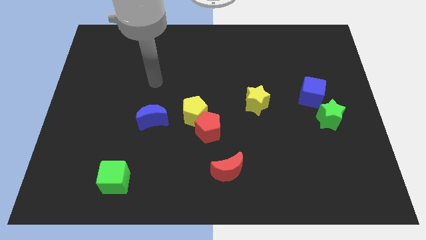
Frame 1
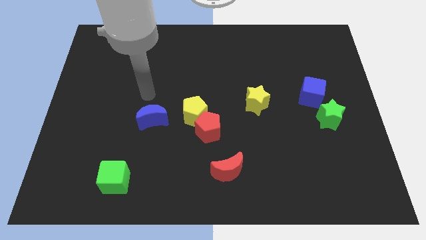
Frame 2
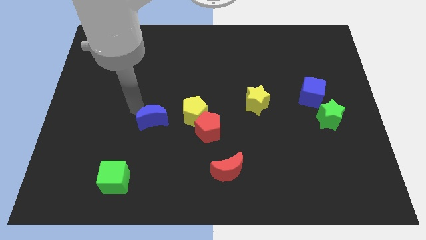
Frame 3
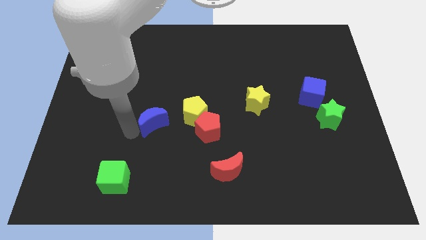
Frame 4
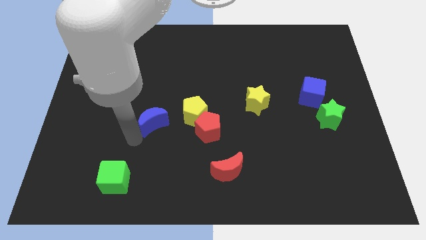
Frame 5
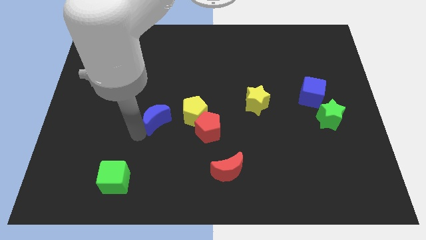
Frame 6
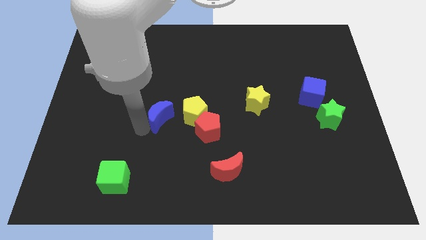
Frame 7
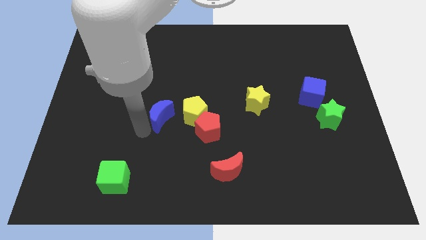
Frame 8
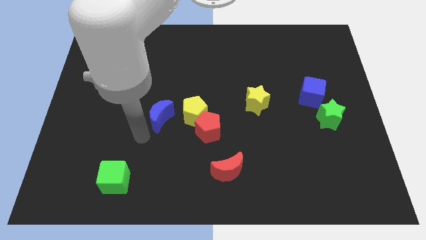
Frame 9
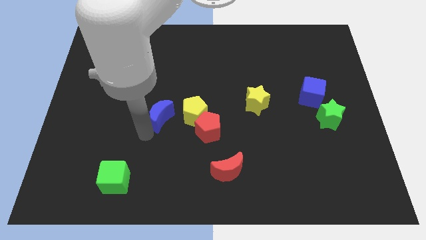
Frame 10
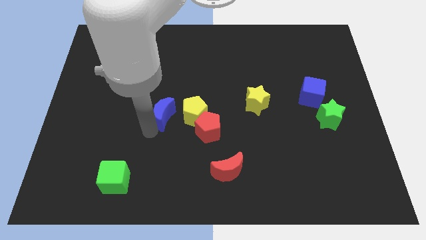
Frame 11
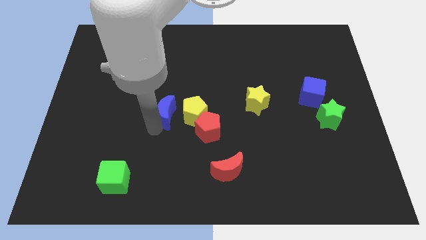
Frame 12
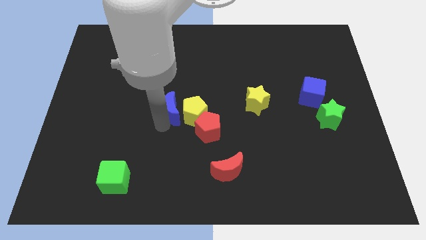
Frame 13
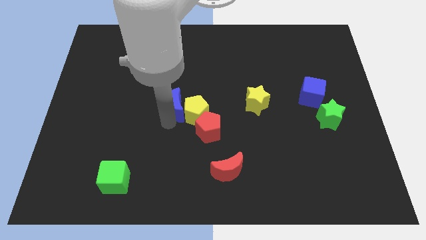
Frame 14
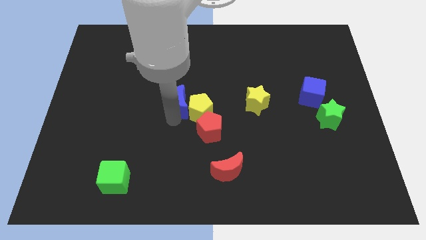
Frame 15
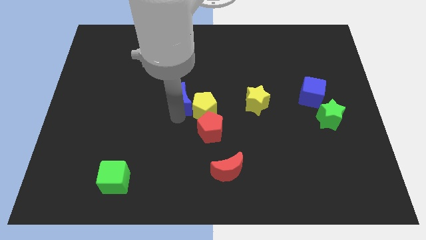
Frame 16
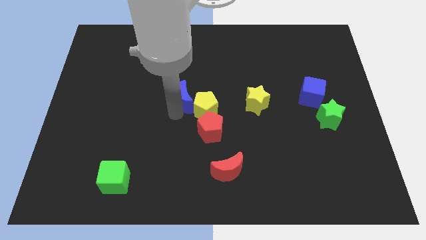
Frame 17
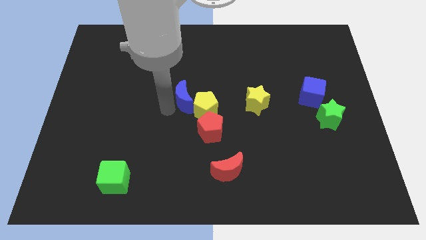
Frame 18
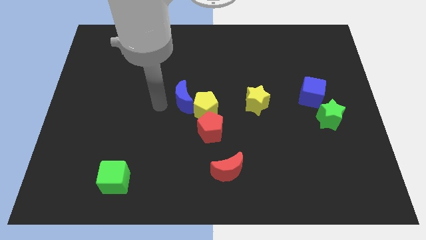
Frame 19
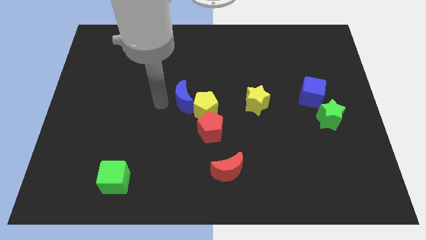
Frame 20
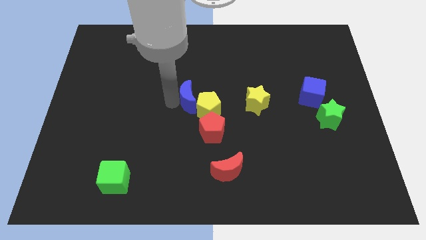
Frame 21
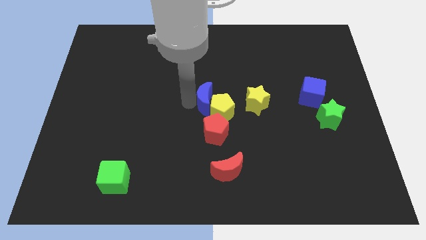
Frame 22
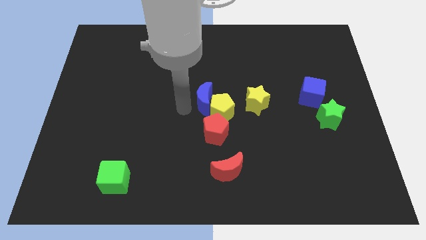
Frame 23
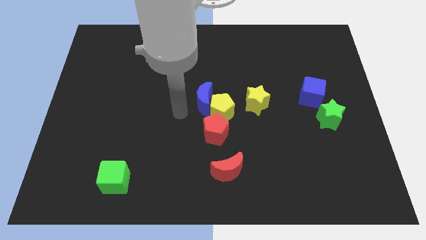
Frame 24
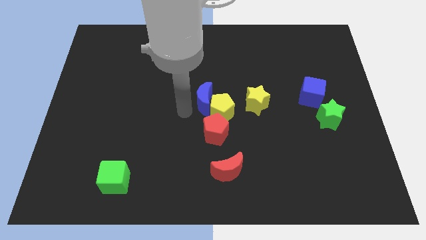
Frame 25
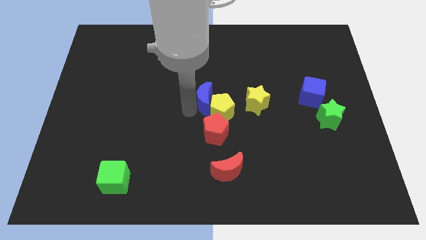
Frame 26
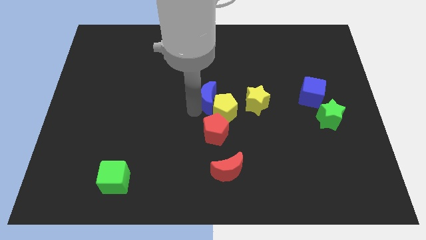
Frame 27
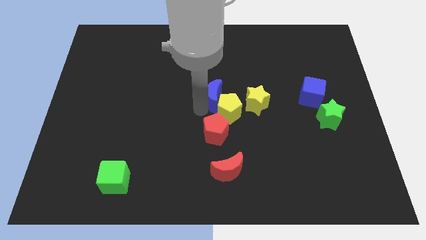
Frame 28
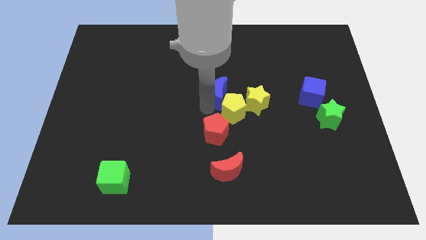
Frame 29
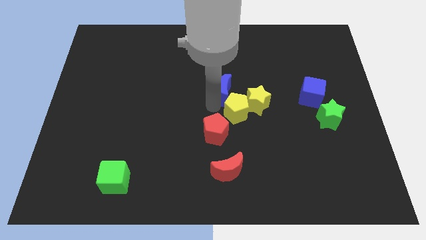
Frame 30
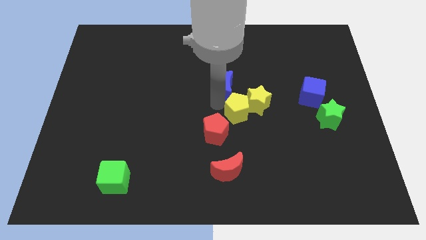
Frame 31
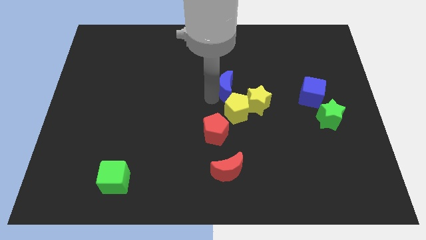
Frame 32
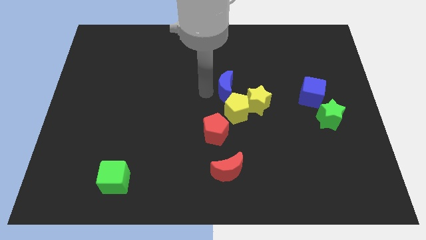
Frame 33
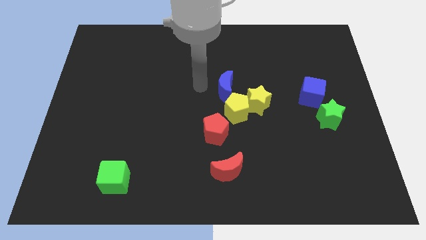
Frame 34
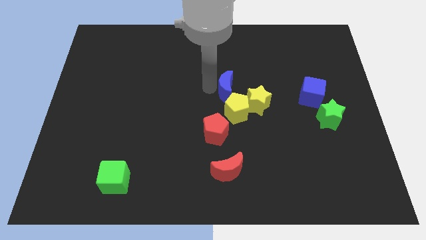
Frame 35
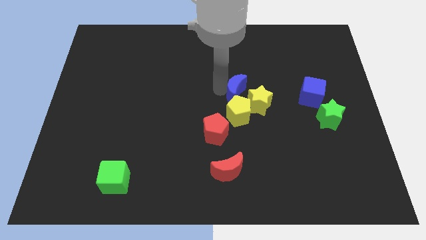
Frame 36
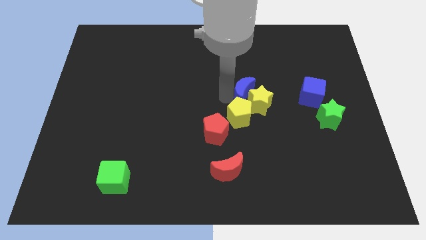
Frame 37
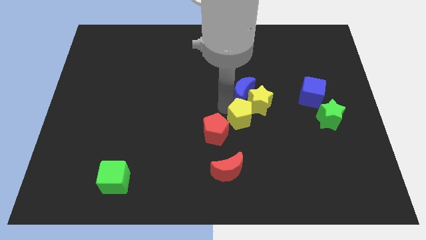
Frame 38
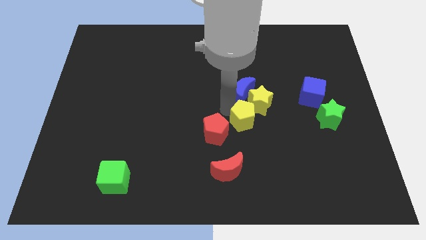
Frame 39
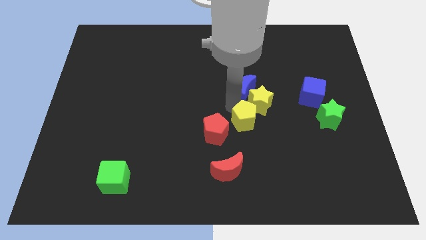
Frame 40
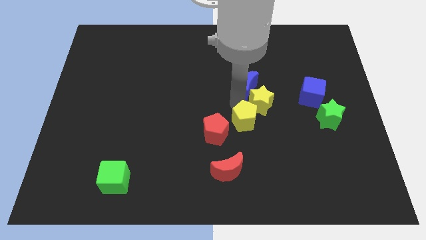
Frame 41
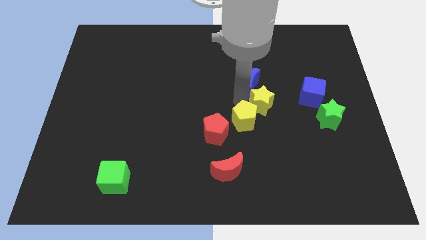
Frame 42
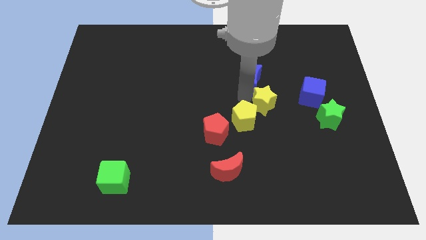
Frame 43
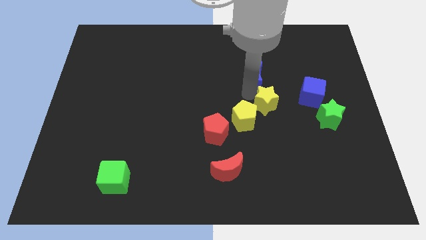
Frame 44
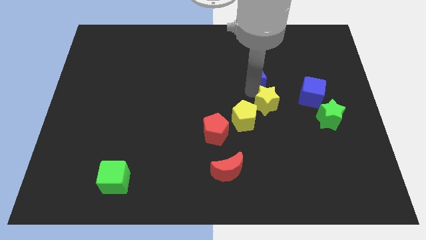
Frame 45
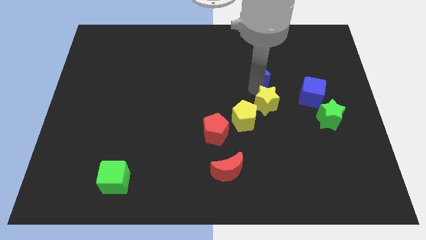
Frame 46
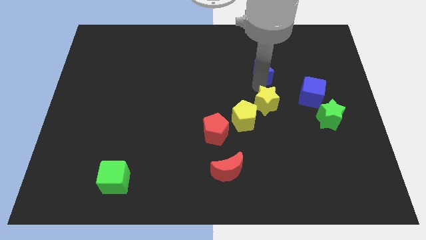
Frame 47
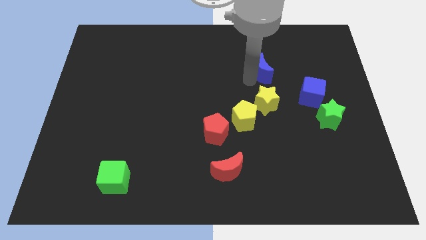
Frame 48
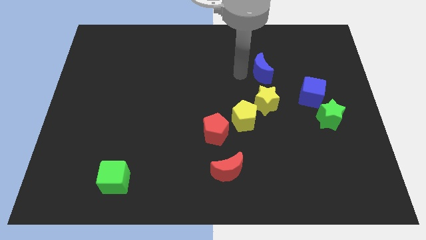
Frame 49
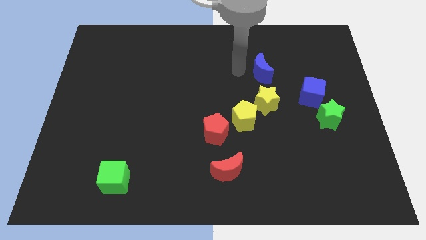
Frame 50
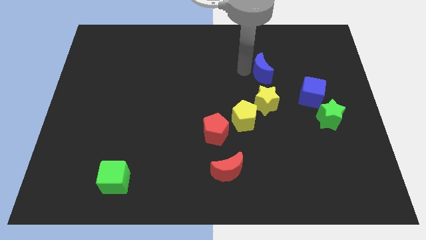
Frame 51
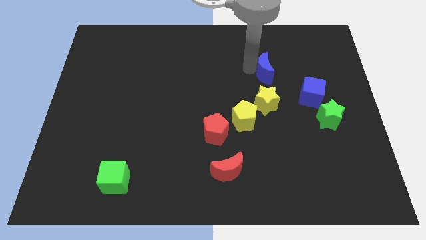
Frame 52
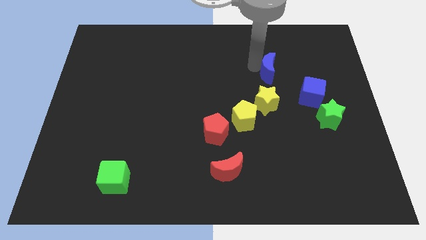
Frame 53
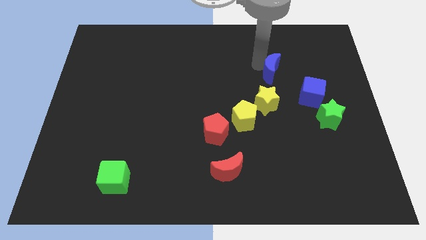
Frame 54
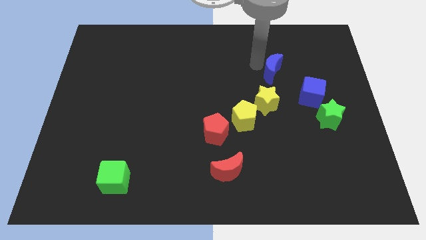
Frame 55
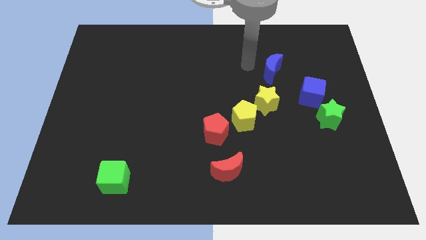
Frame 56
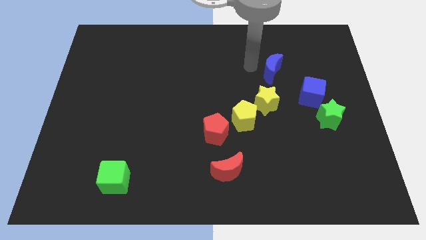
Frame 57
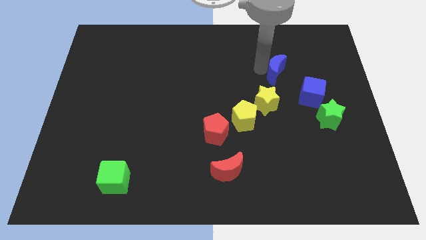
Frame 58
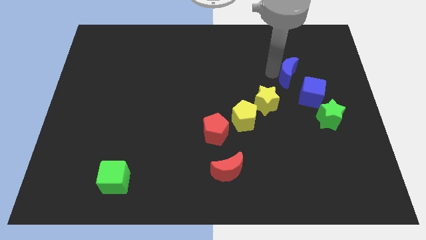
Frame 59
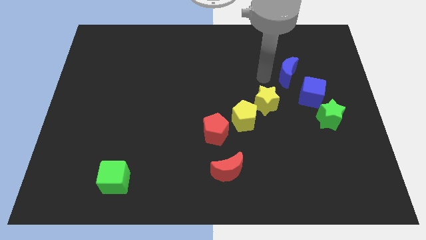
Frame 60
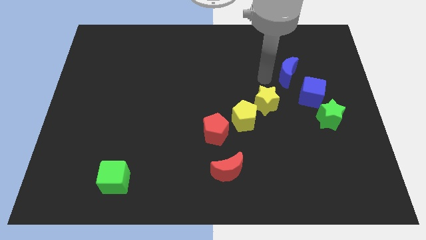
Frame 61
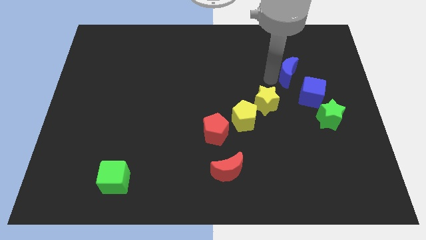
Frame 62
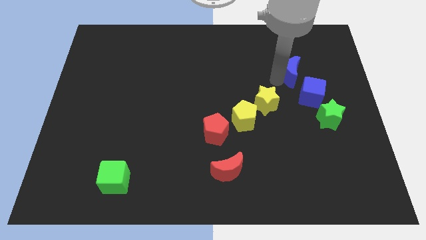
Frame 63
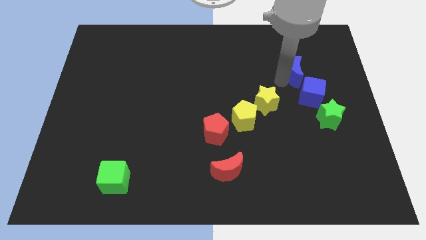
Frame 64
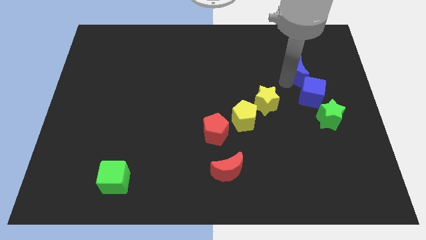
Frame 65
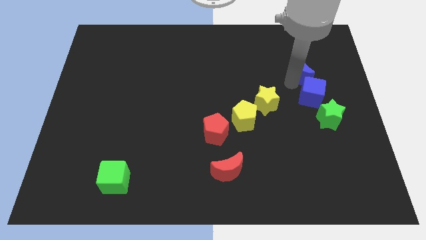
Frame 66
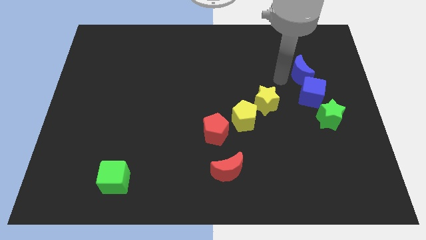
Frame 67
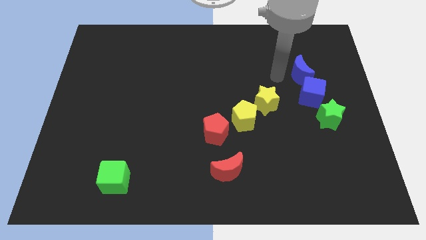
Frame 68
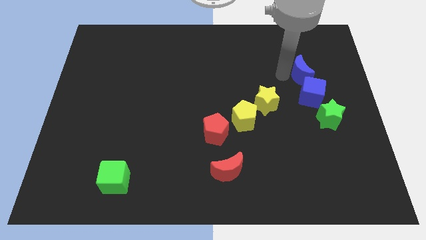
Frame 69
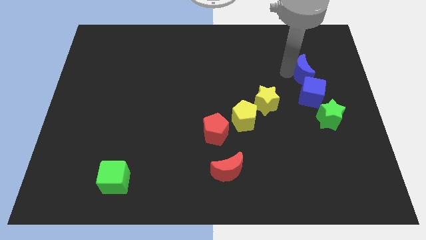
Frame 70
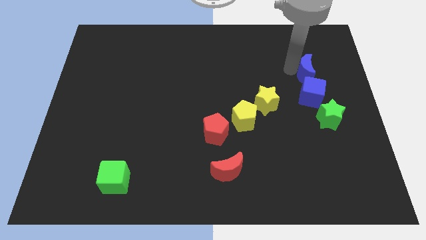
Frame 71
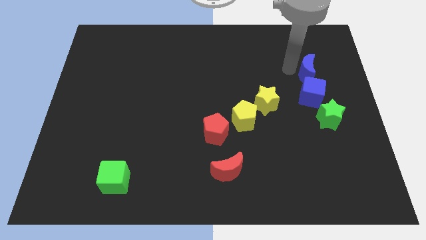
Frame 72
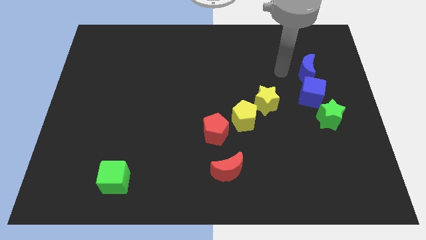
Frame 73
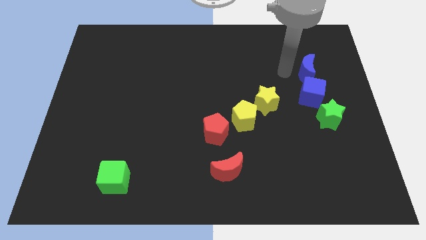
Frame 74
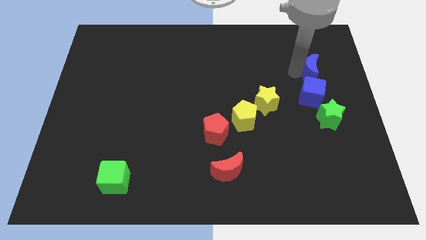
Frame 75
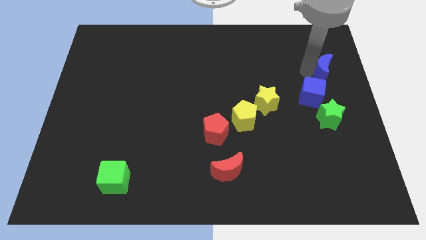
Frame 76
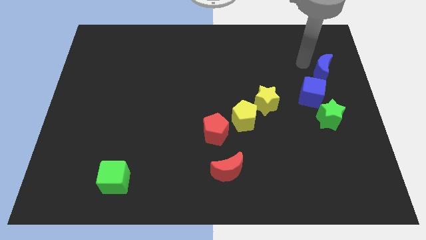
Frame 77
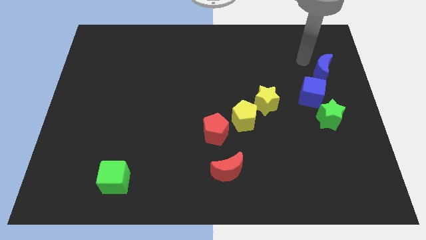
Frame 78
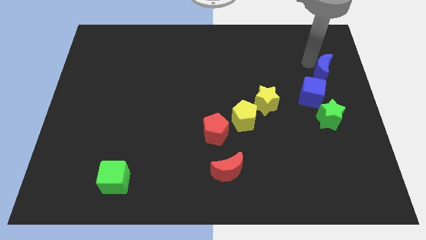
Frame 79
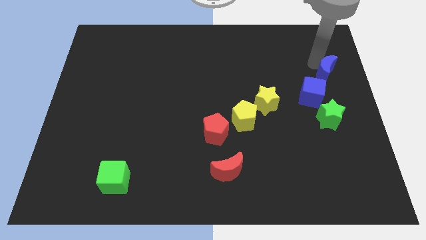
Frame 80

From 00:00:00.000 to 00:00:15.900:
push the blue moon to the center right
